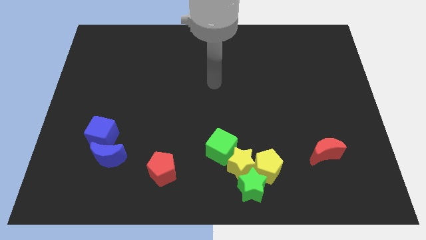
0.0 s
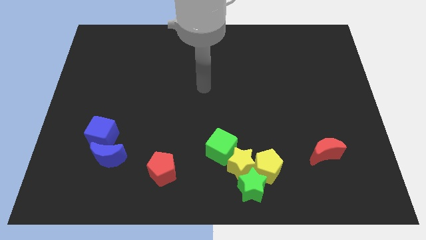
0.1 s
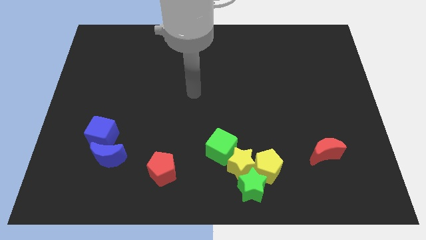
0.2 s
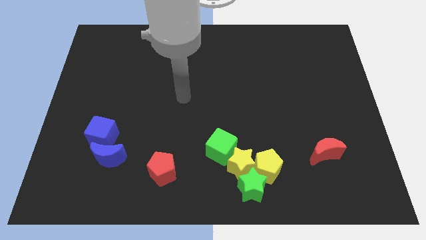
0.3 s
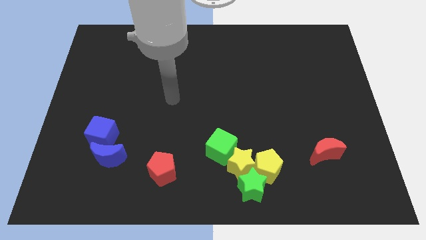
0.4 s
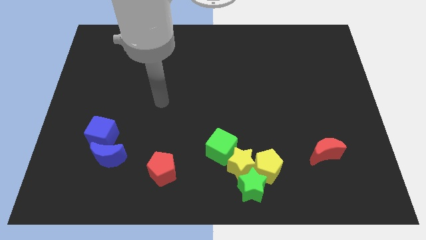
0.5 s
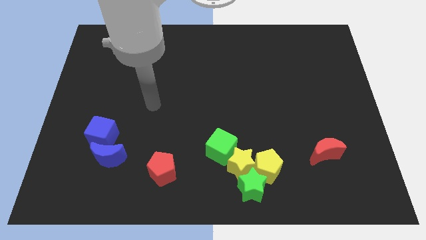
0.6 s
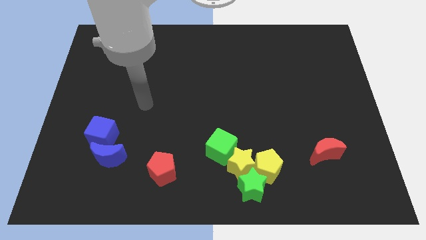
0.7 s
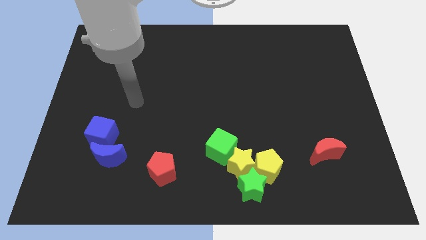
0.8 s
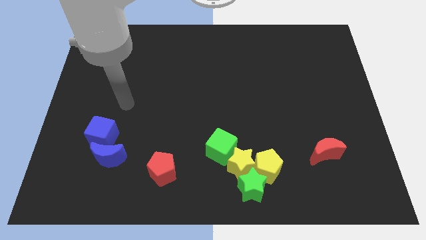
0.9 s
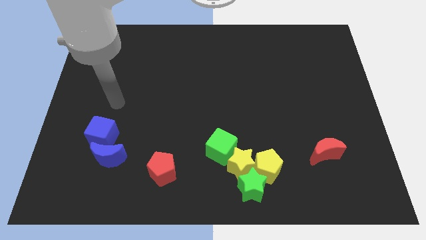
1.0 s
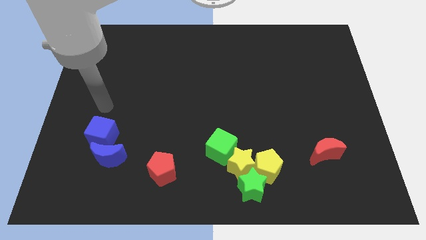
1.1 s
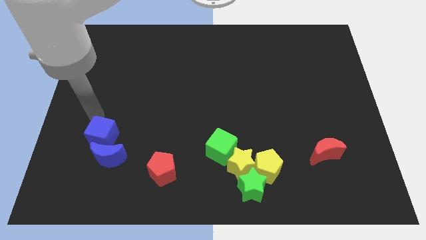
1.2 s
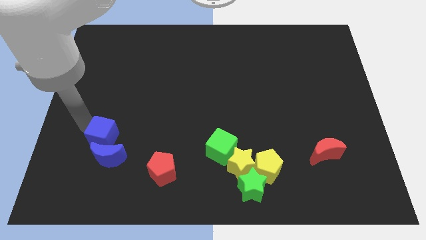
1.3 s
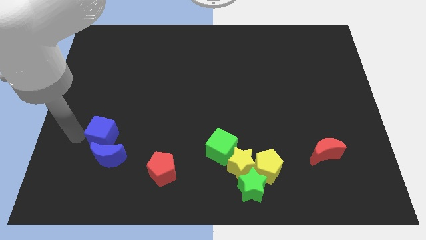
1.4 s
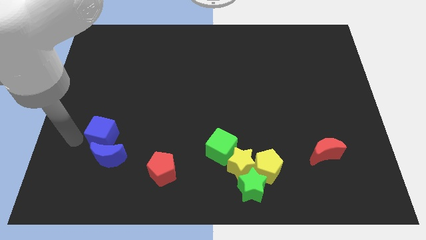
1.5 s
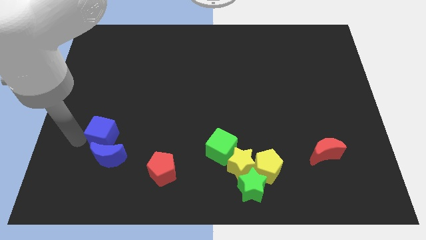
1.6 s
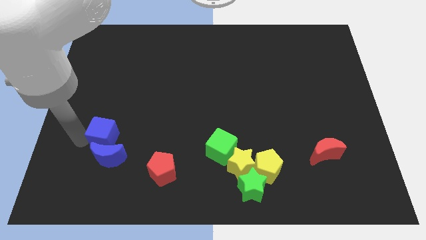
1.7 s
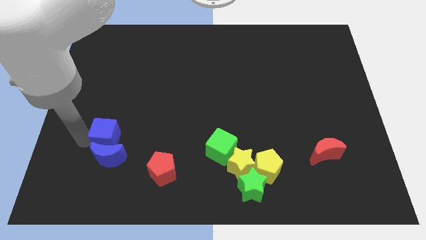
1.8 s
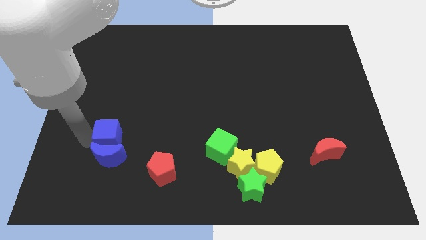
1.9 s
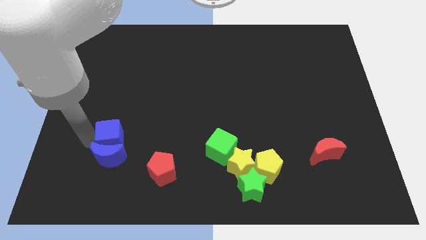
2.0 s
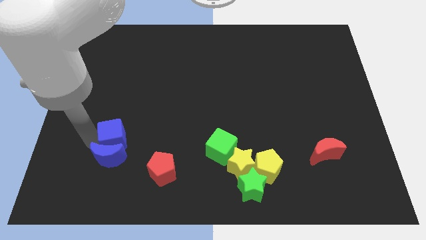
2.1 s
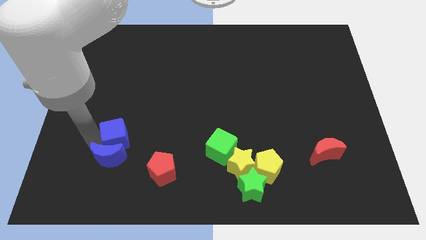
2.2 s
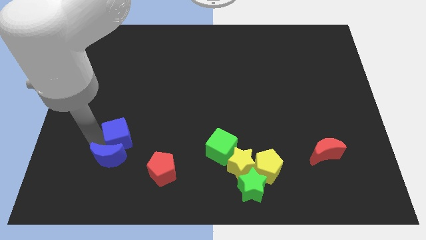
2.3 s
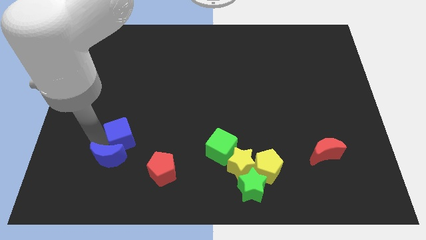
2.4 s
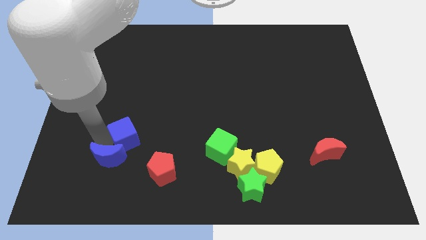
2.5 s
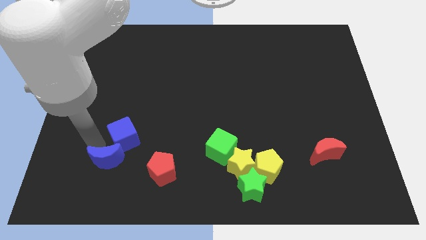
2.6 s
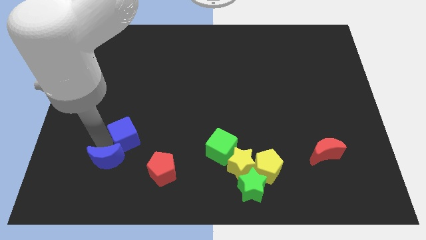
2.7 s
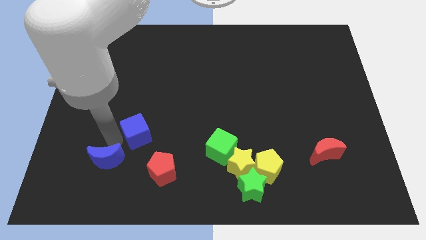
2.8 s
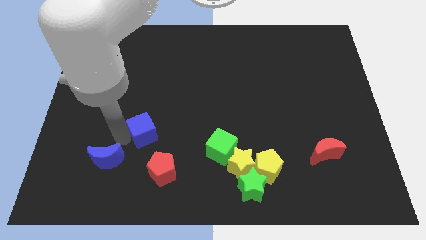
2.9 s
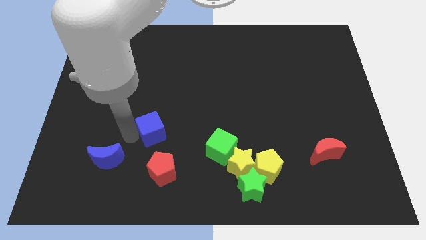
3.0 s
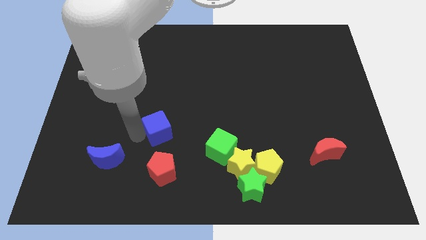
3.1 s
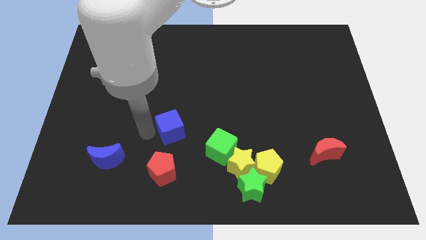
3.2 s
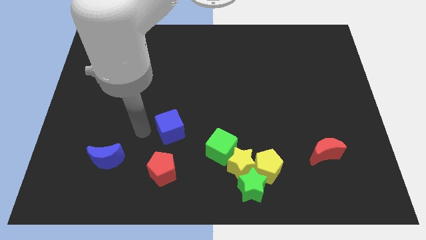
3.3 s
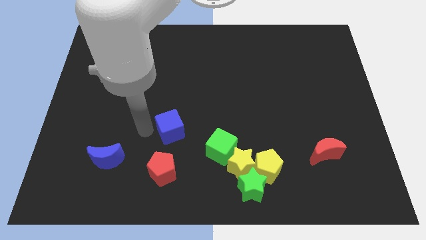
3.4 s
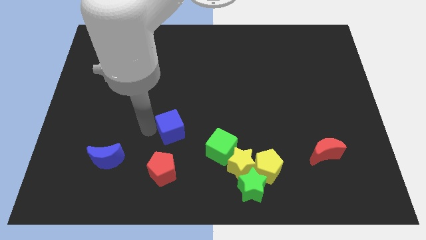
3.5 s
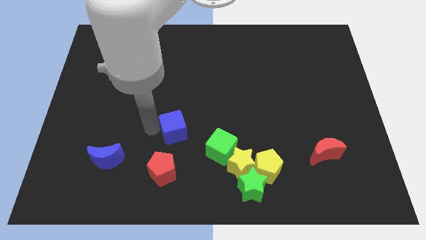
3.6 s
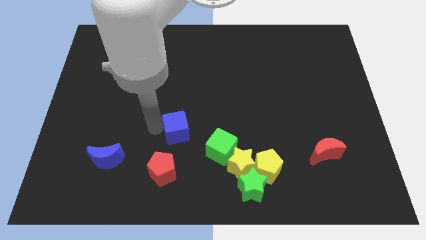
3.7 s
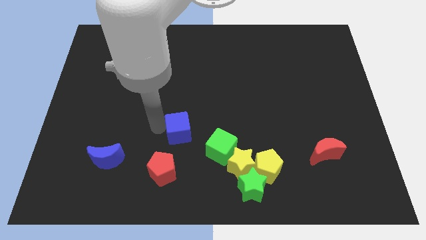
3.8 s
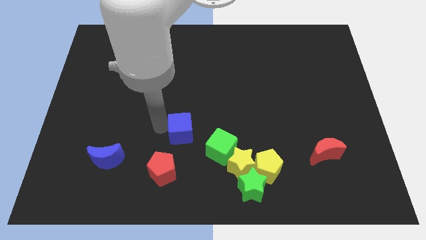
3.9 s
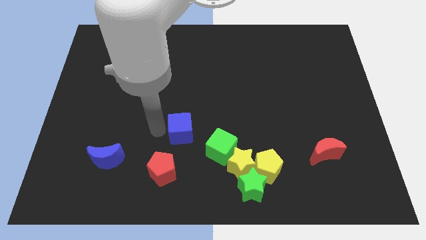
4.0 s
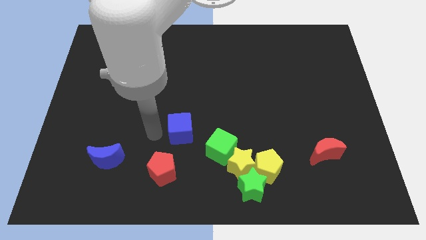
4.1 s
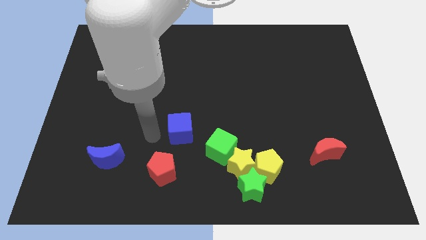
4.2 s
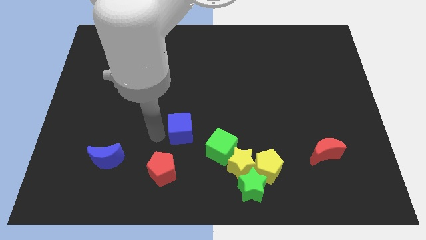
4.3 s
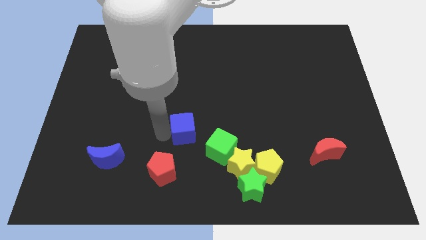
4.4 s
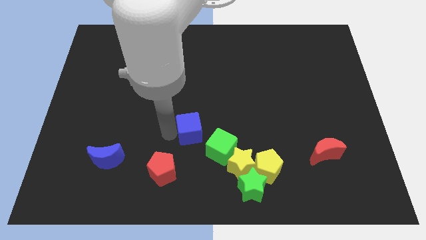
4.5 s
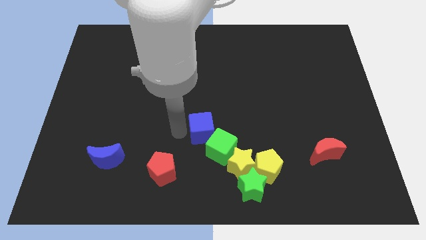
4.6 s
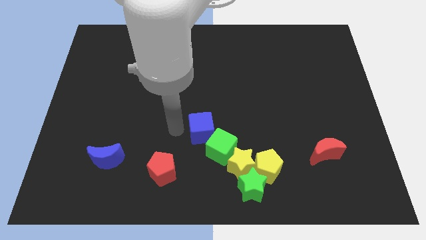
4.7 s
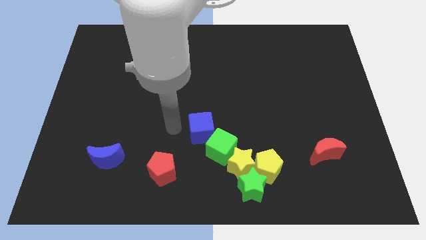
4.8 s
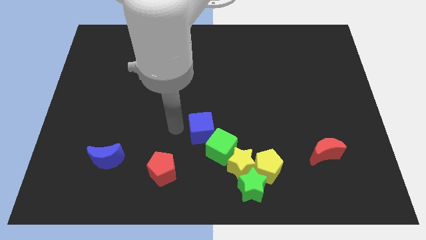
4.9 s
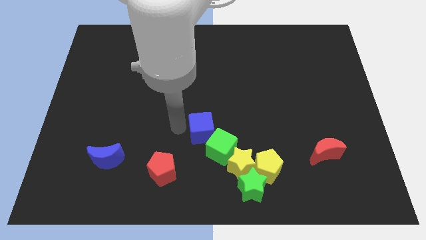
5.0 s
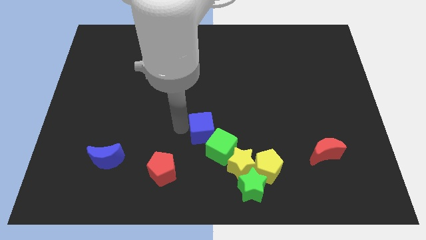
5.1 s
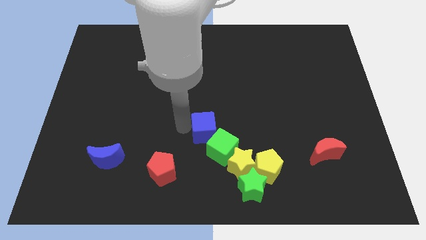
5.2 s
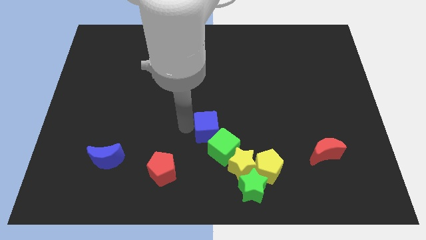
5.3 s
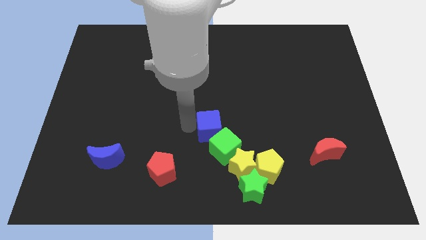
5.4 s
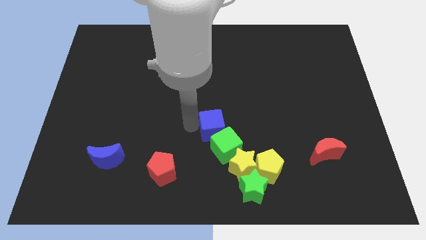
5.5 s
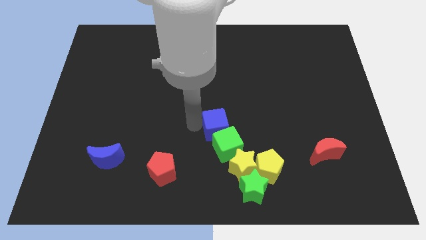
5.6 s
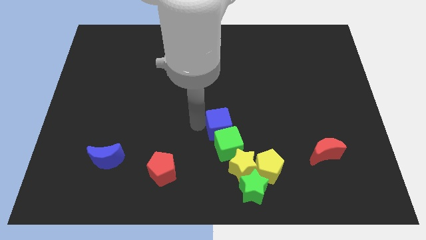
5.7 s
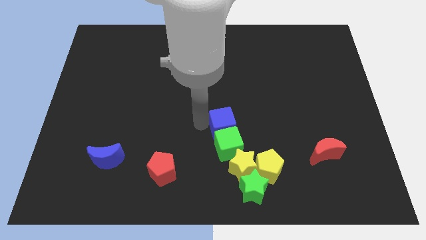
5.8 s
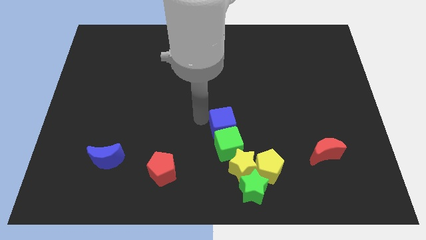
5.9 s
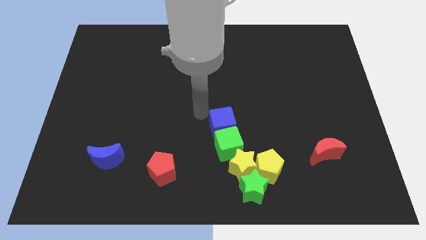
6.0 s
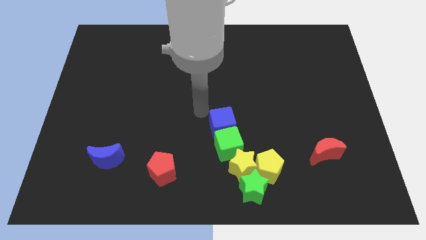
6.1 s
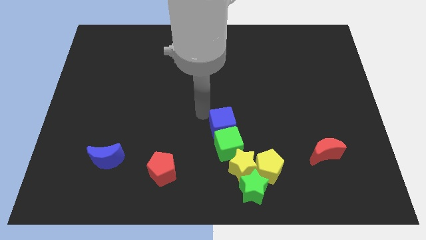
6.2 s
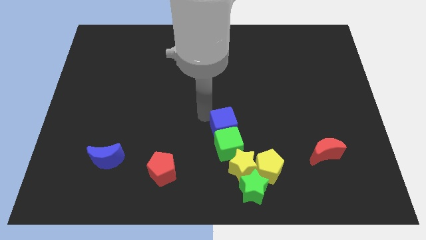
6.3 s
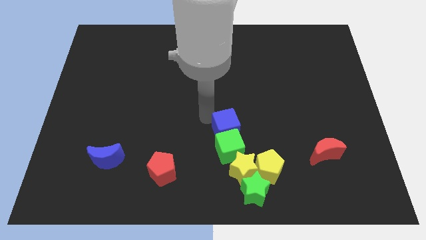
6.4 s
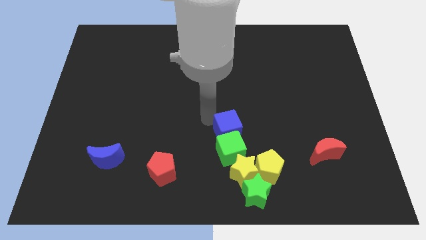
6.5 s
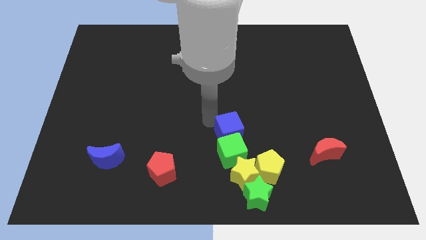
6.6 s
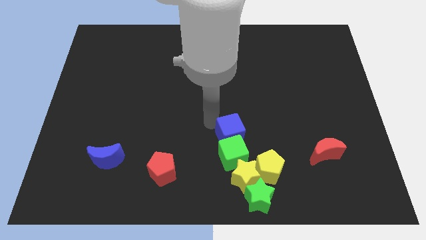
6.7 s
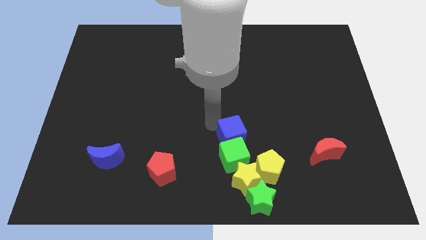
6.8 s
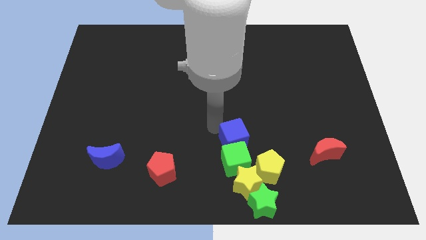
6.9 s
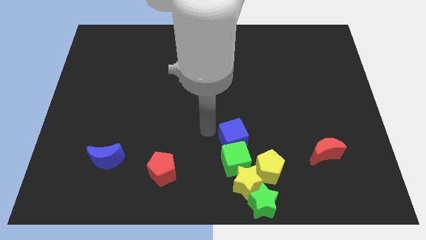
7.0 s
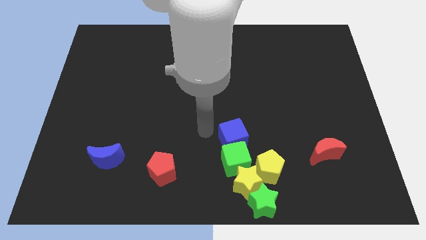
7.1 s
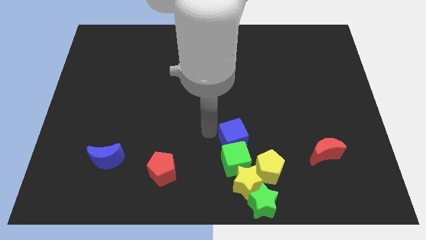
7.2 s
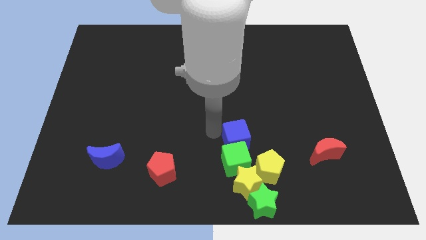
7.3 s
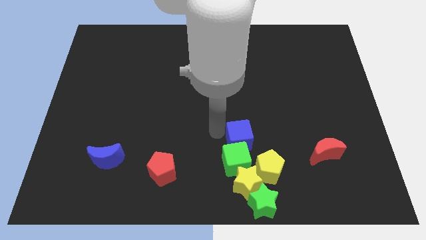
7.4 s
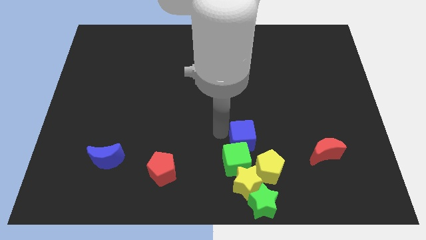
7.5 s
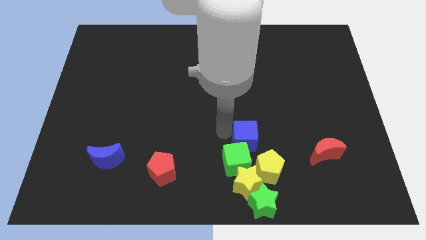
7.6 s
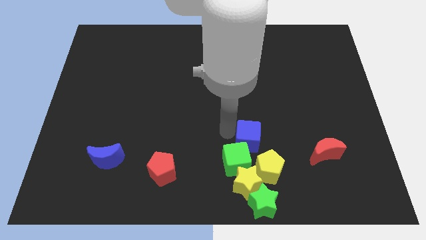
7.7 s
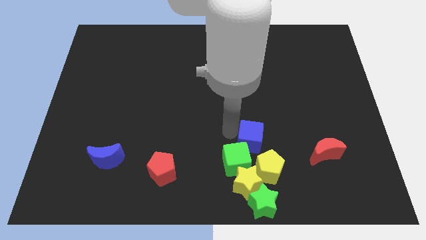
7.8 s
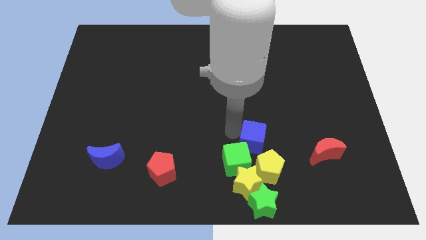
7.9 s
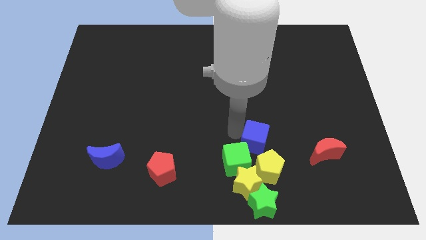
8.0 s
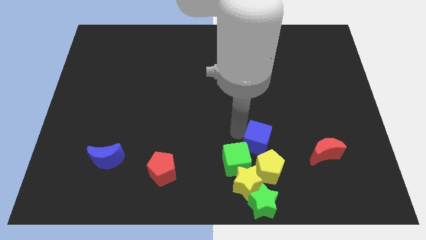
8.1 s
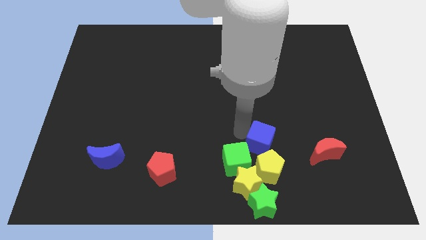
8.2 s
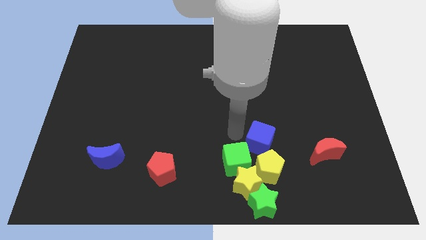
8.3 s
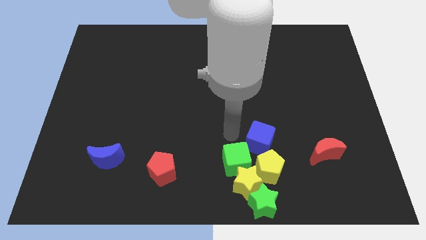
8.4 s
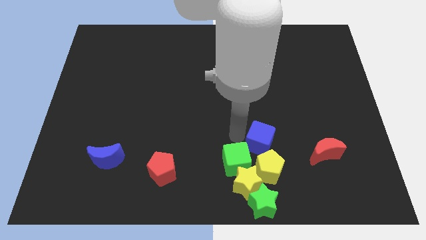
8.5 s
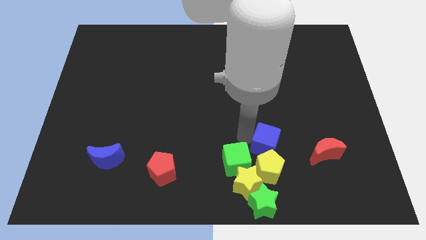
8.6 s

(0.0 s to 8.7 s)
slide the blue cube to the top right side of the yellow pentagon
